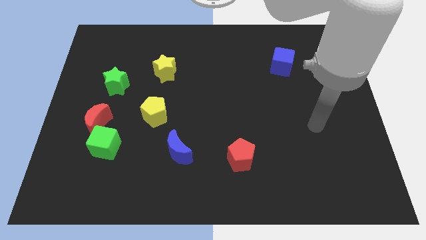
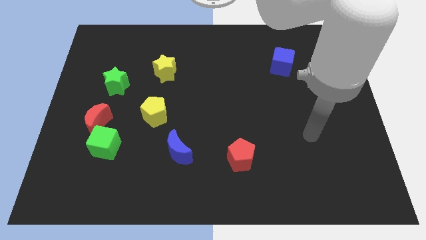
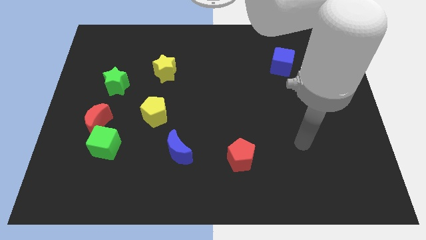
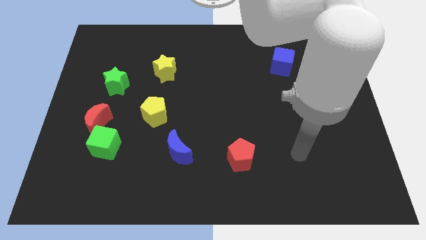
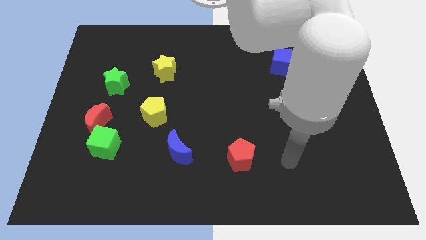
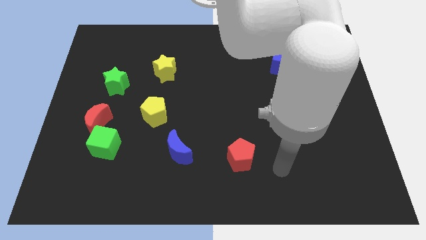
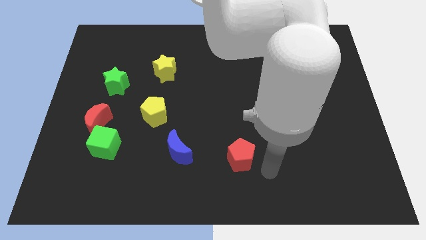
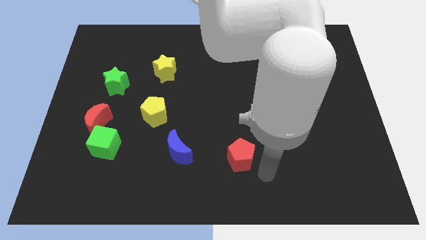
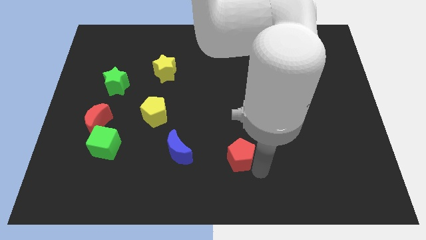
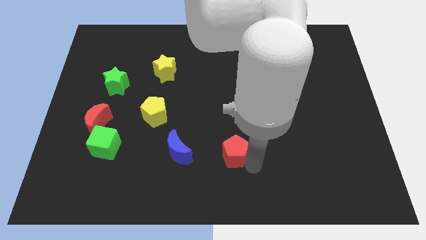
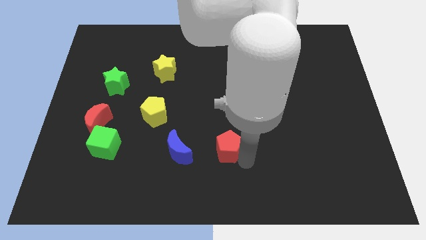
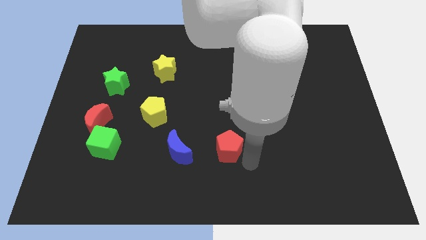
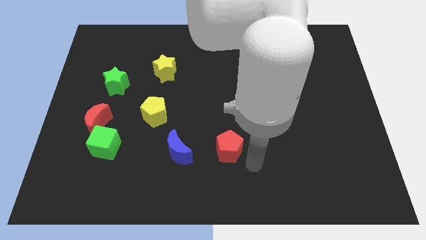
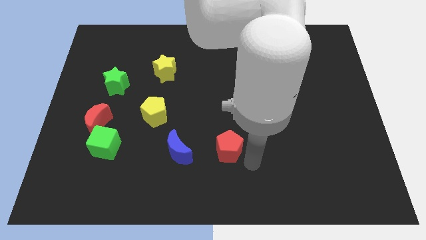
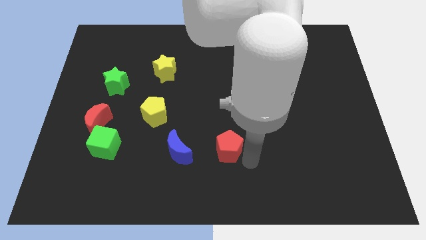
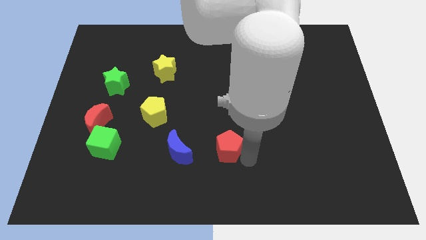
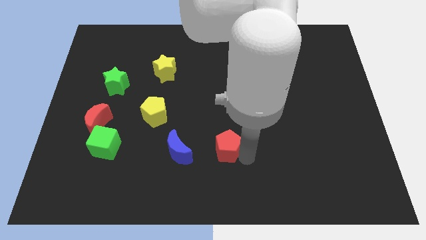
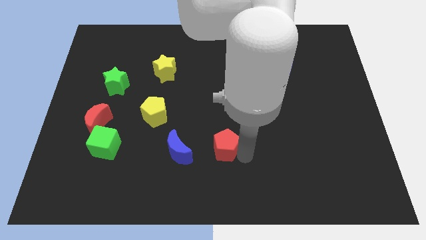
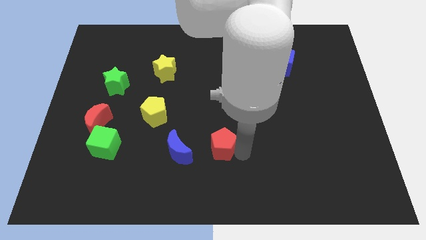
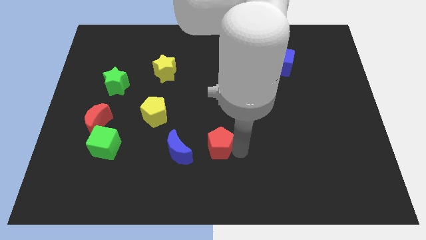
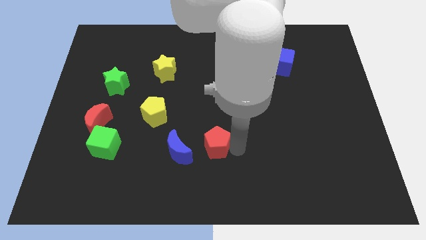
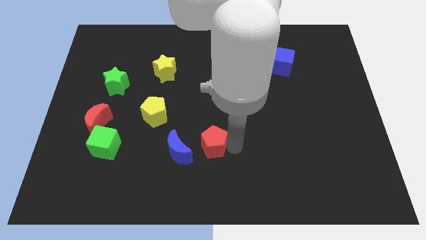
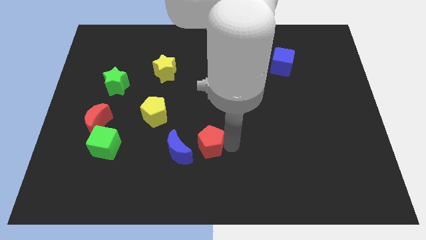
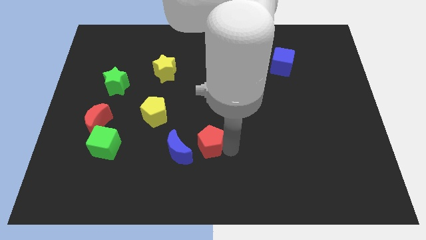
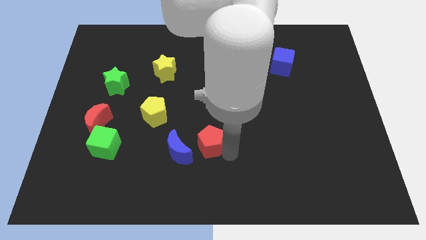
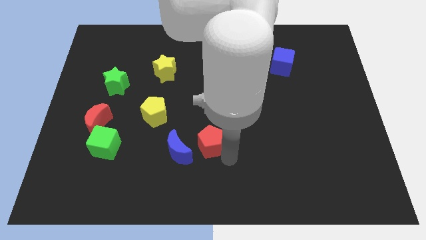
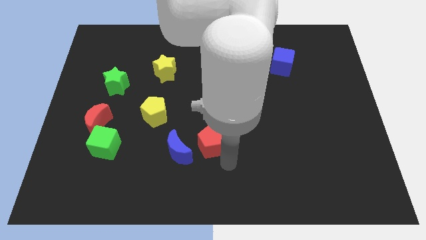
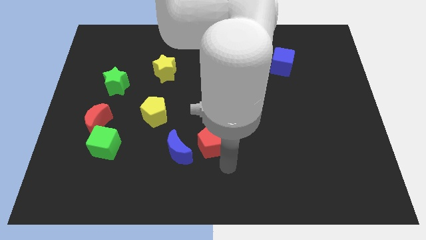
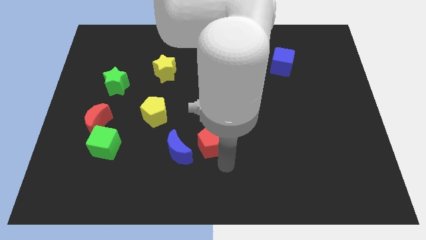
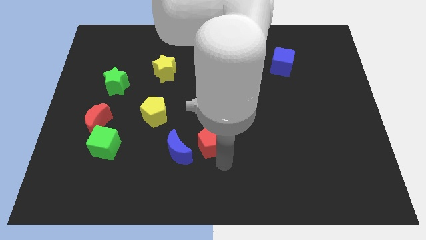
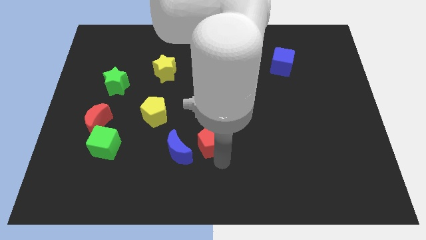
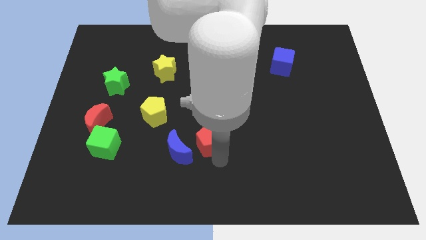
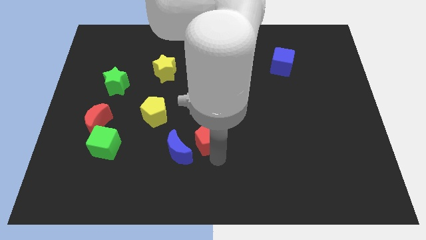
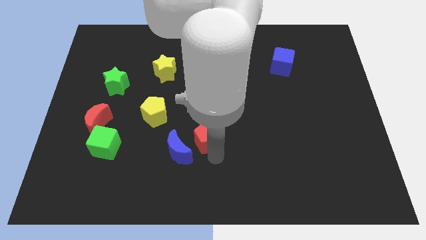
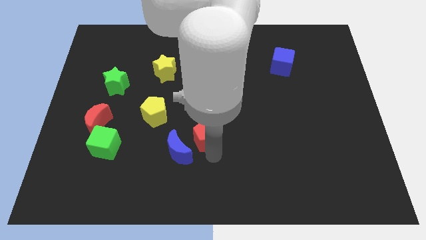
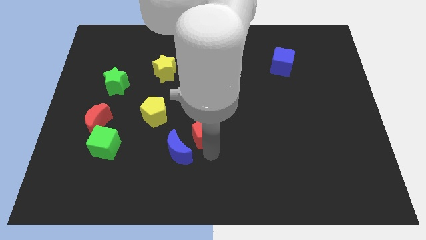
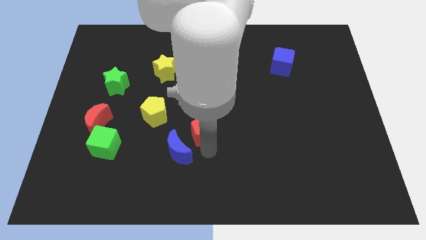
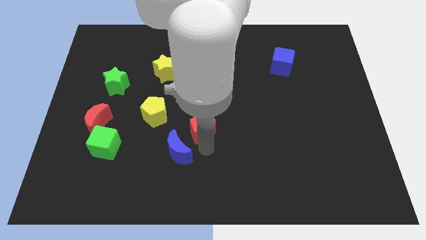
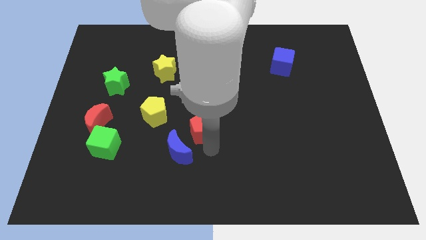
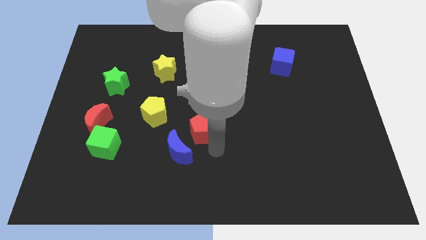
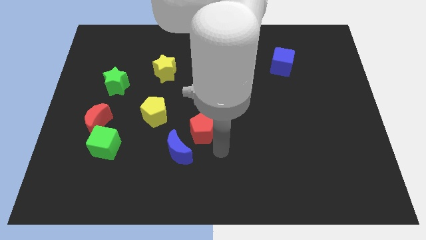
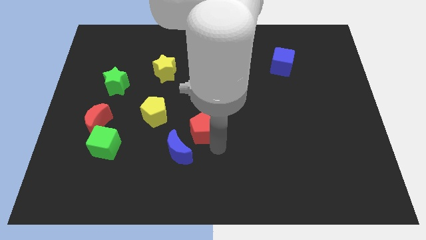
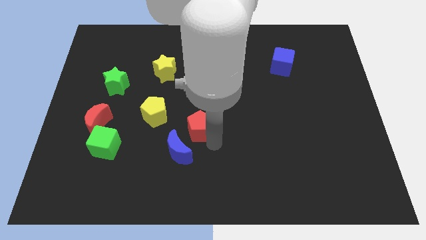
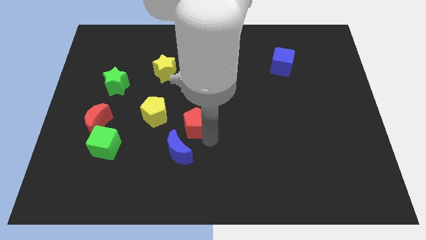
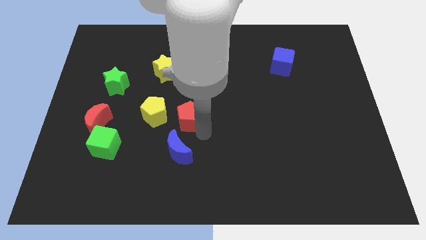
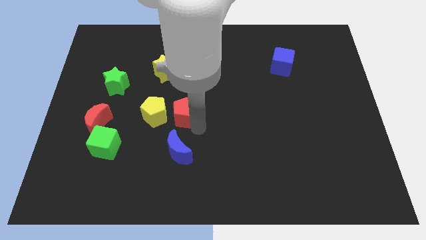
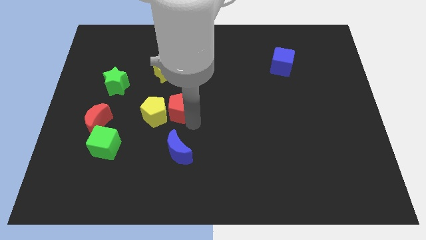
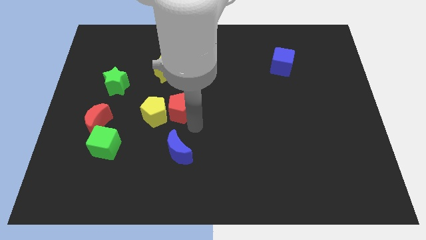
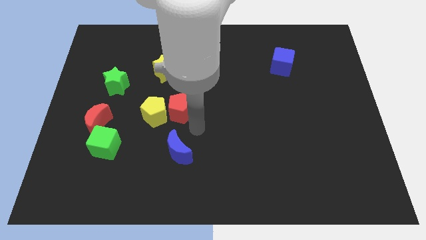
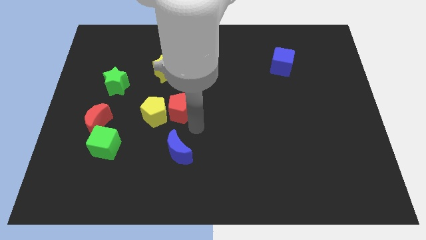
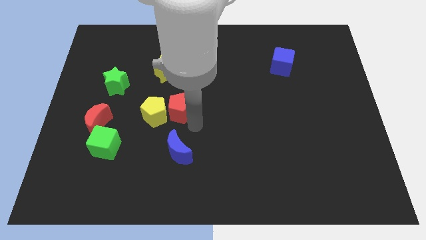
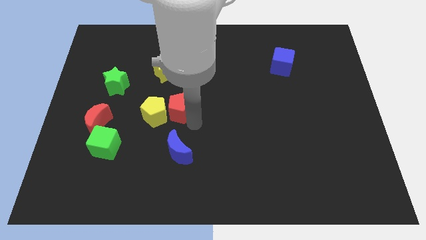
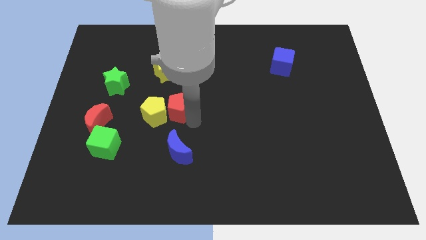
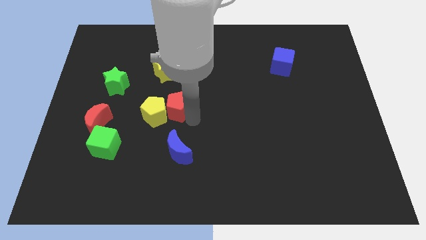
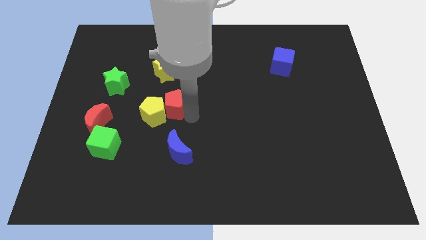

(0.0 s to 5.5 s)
slide the red pentagon diagonally upwards and left

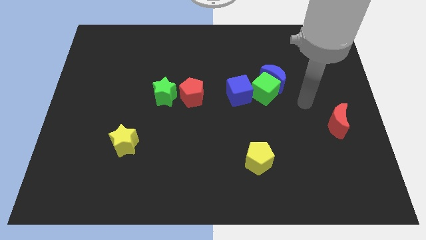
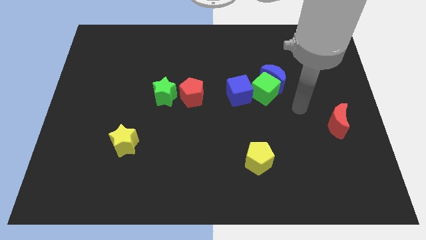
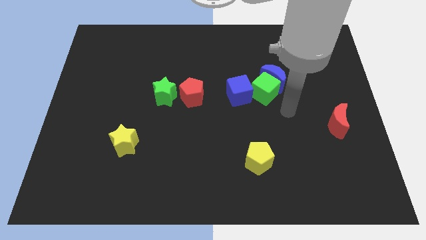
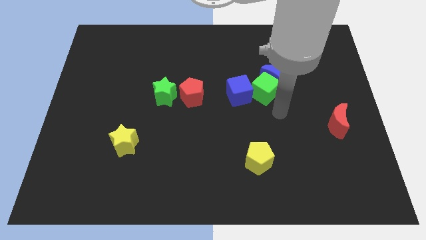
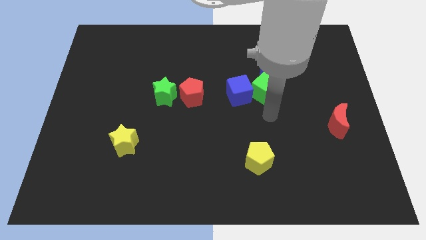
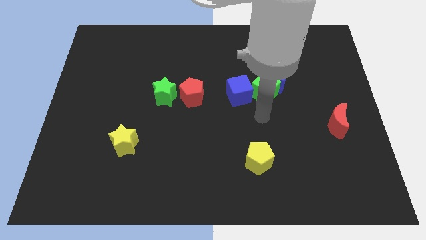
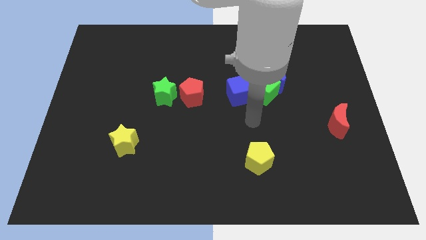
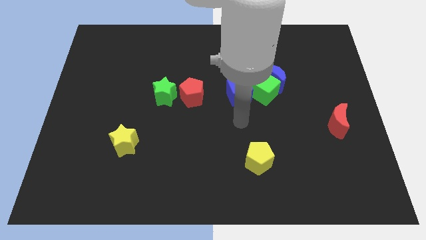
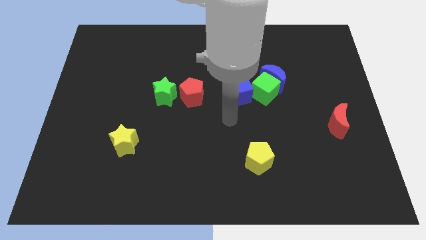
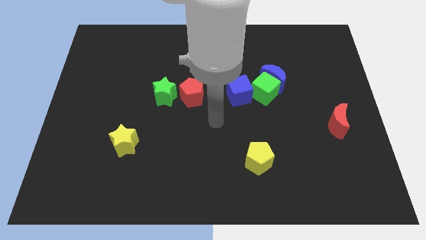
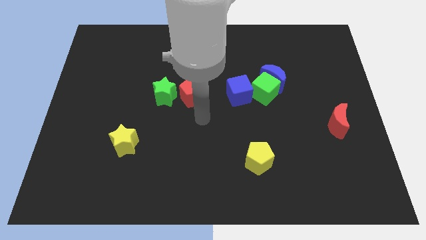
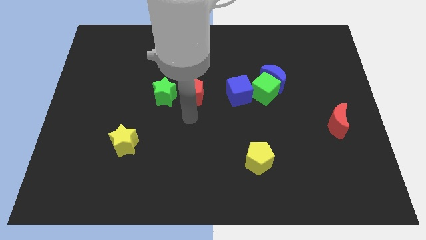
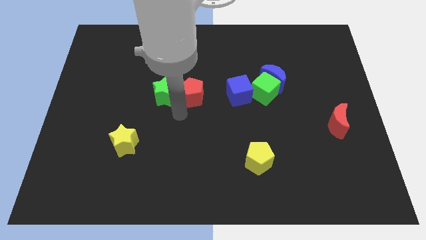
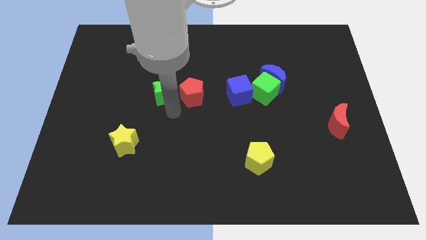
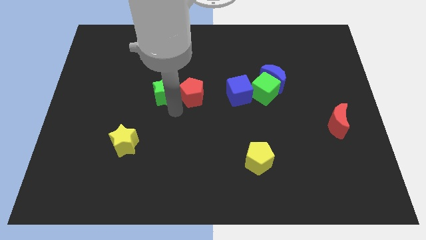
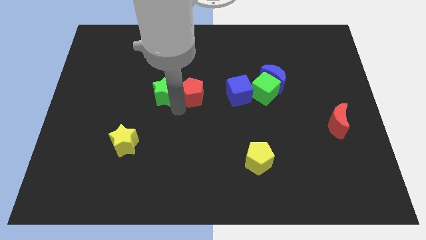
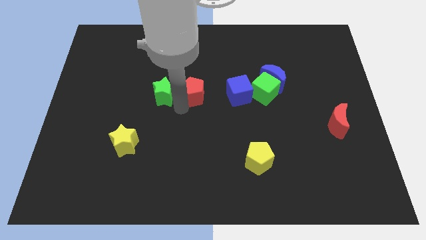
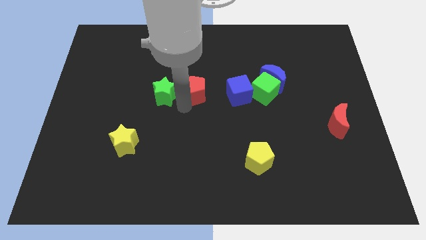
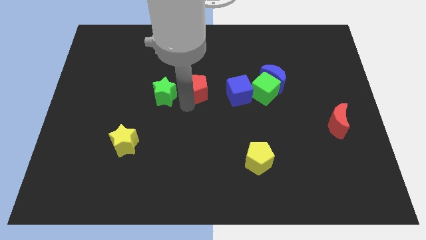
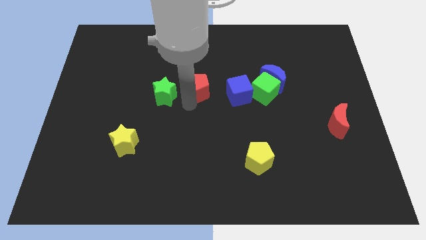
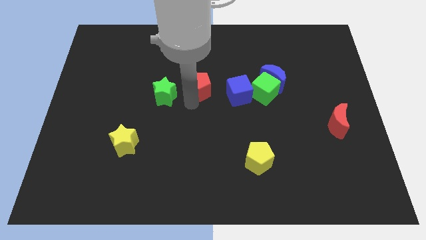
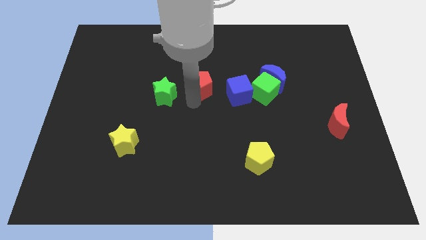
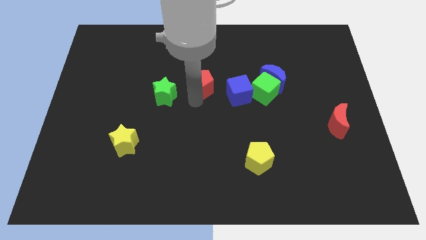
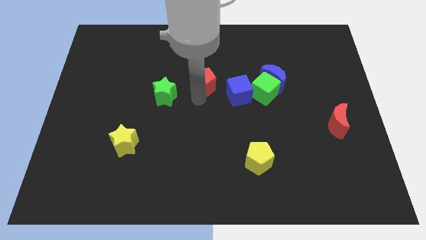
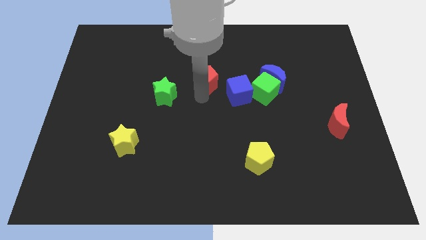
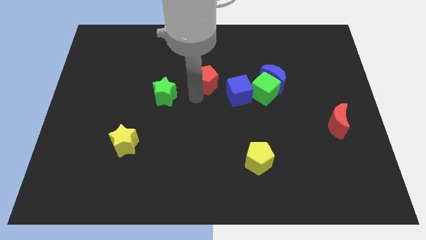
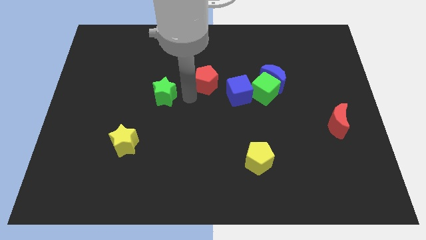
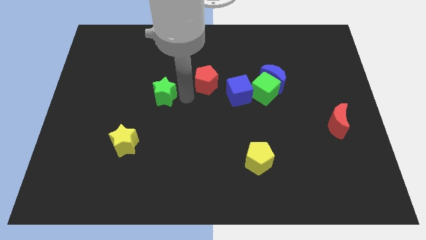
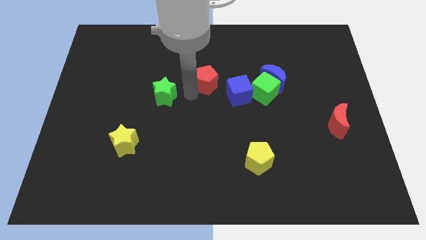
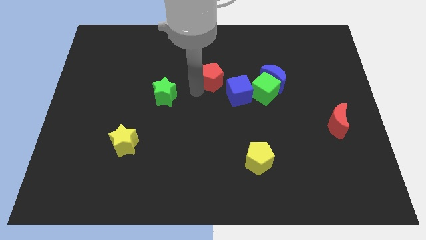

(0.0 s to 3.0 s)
push the red pentagon up and then right a bit
